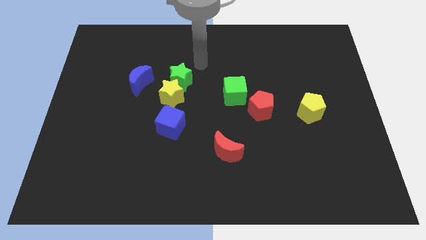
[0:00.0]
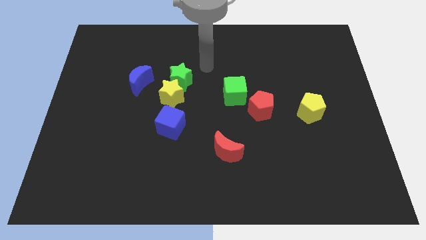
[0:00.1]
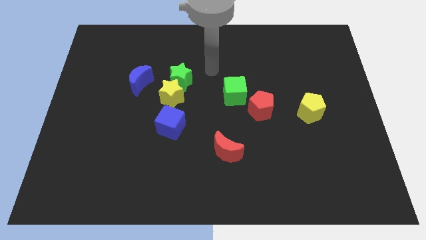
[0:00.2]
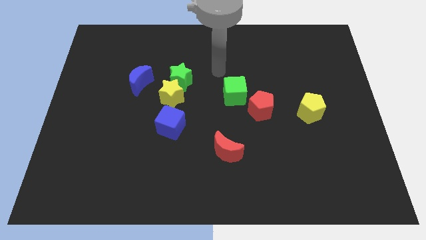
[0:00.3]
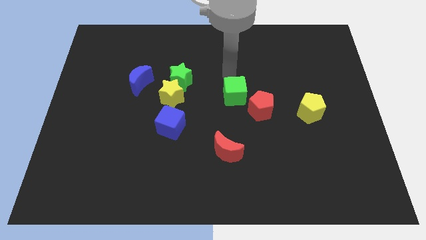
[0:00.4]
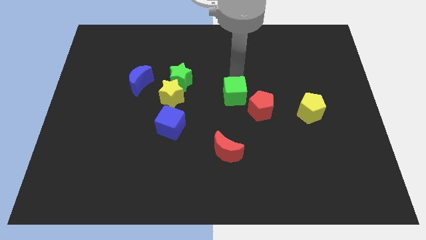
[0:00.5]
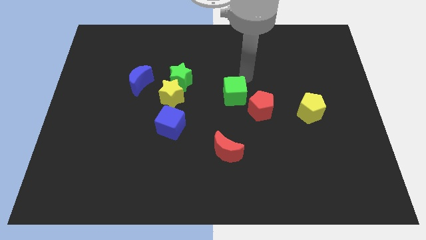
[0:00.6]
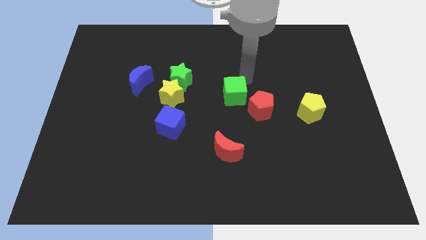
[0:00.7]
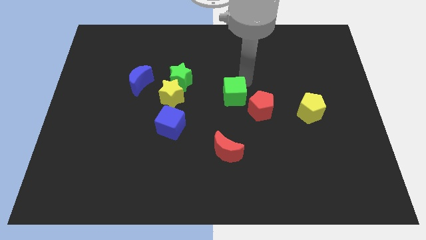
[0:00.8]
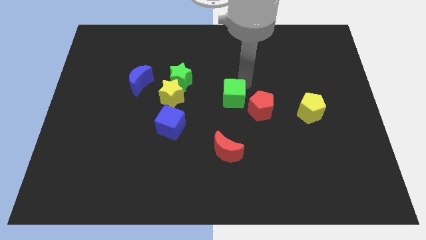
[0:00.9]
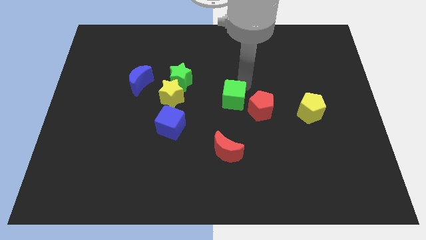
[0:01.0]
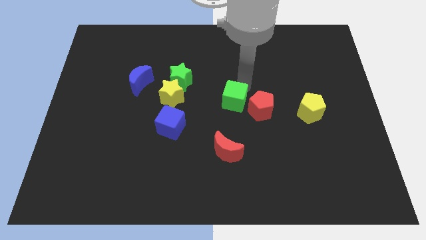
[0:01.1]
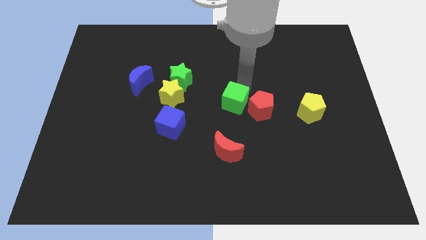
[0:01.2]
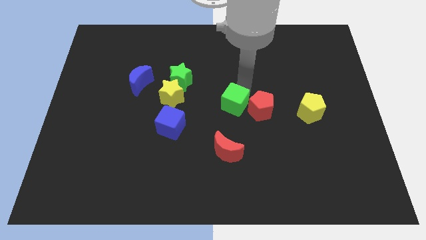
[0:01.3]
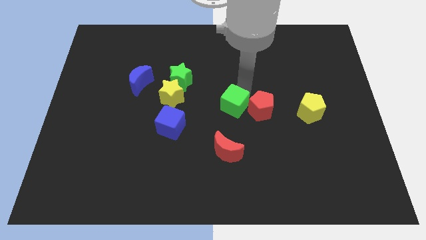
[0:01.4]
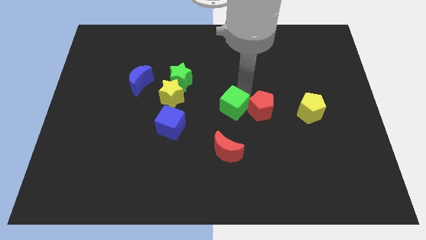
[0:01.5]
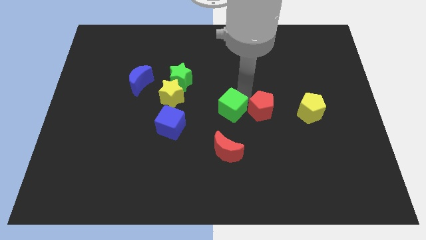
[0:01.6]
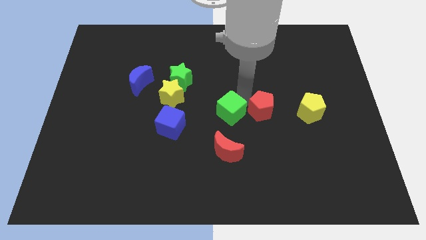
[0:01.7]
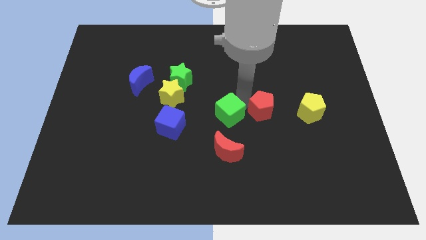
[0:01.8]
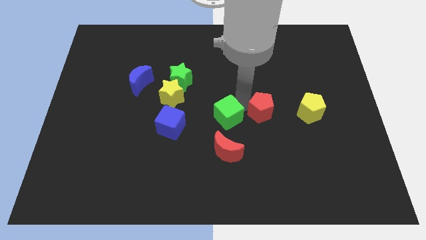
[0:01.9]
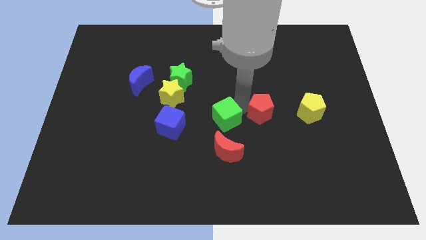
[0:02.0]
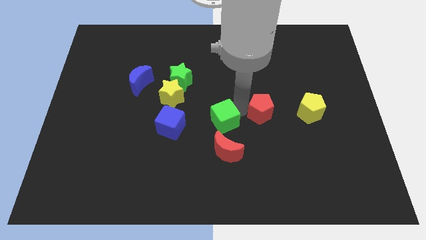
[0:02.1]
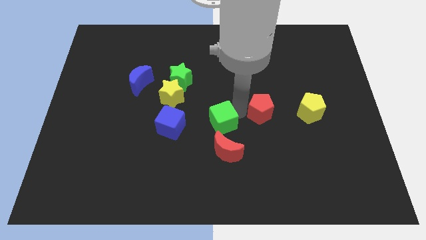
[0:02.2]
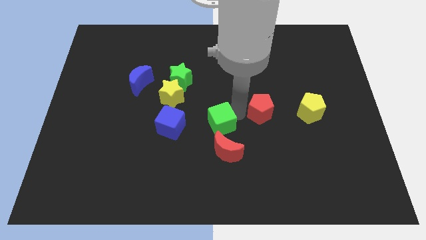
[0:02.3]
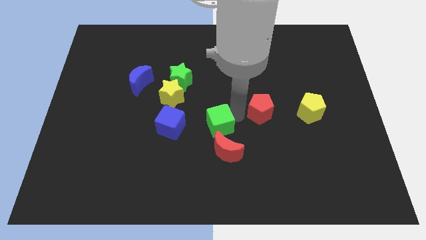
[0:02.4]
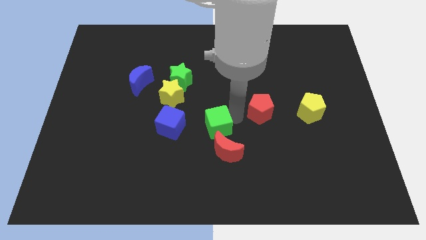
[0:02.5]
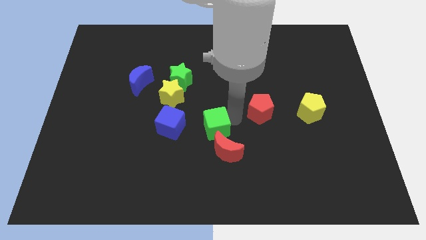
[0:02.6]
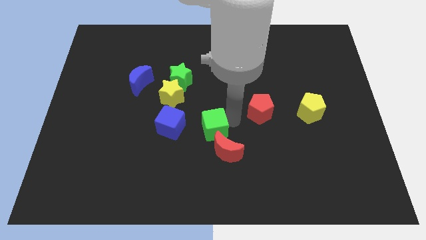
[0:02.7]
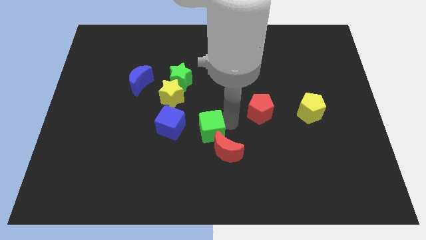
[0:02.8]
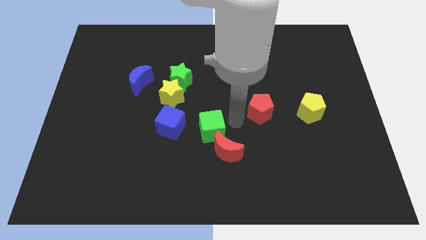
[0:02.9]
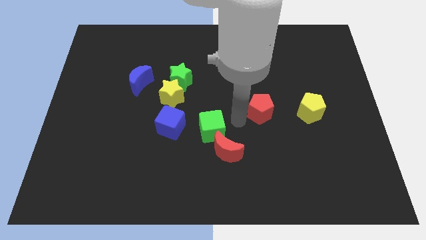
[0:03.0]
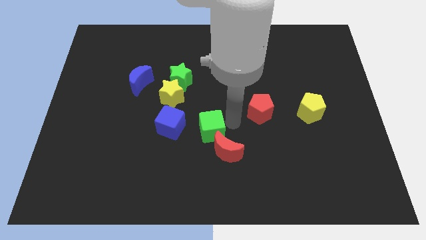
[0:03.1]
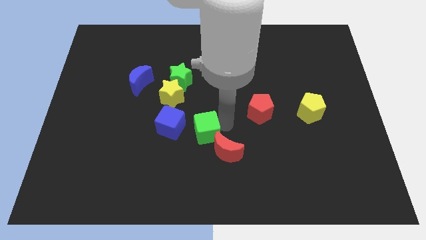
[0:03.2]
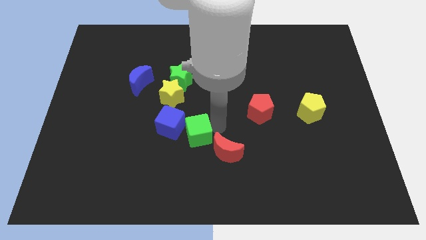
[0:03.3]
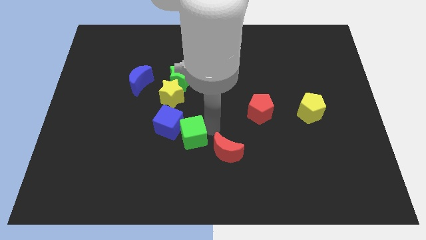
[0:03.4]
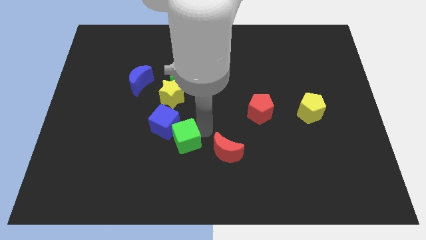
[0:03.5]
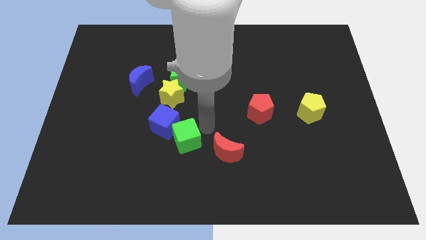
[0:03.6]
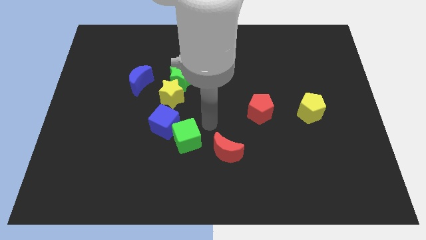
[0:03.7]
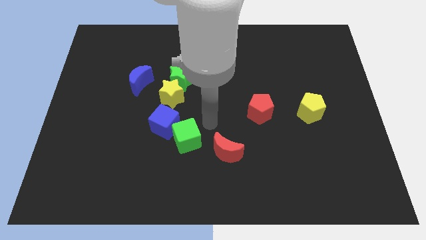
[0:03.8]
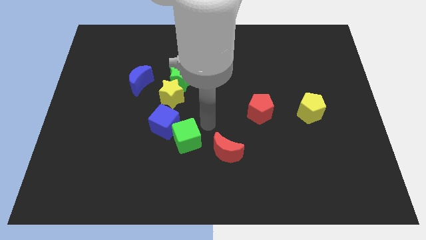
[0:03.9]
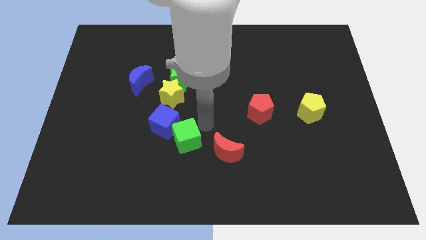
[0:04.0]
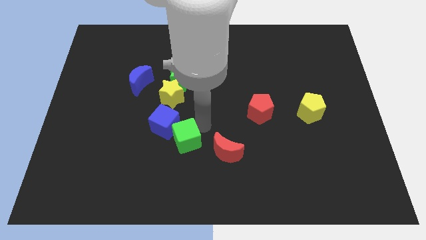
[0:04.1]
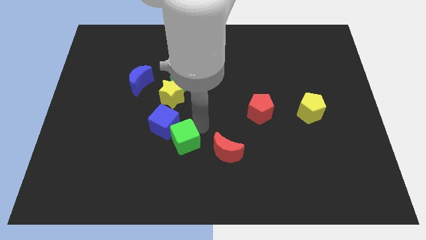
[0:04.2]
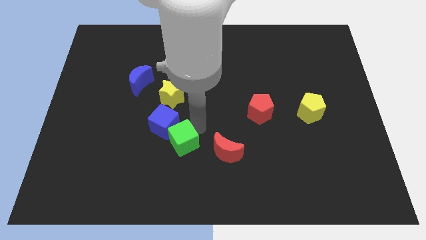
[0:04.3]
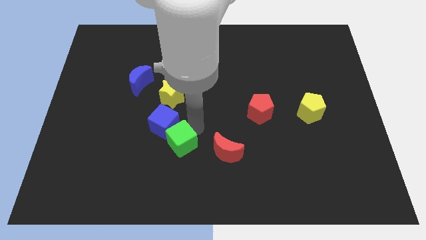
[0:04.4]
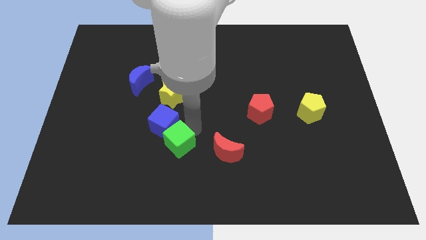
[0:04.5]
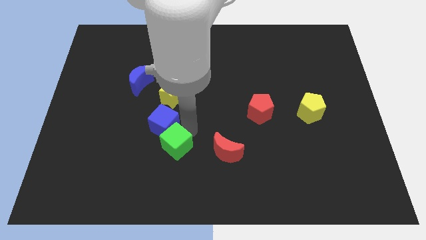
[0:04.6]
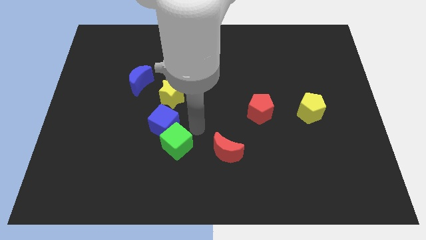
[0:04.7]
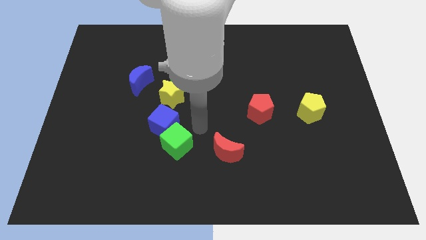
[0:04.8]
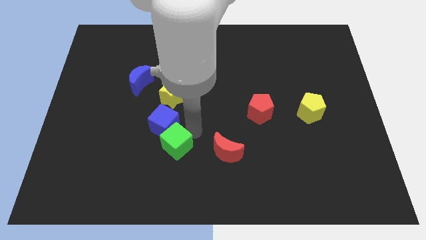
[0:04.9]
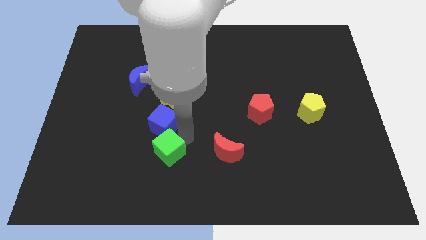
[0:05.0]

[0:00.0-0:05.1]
move the green cube diagonally downwards and left

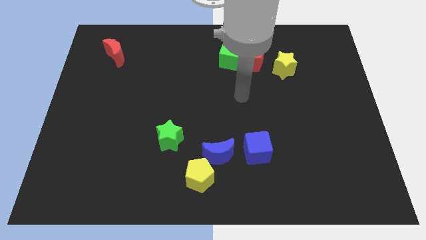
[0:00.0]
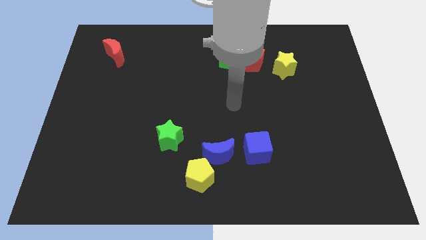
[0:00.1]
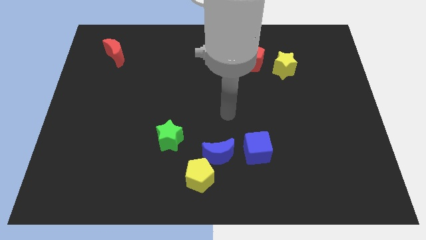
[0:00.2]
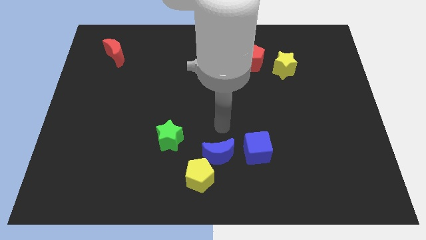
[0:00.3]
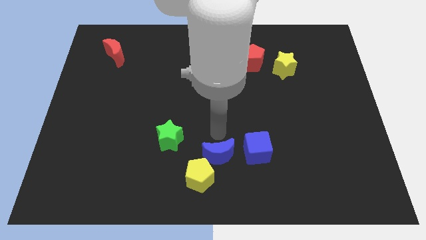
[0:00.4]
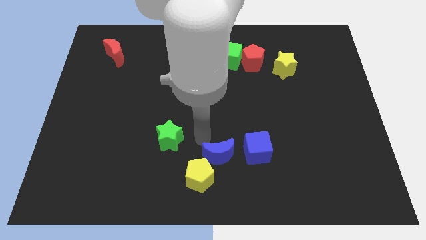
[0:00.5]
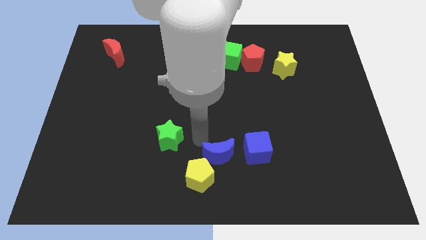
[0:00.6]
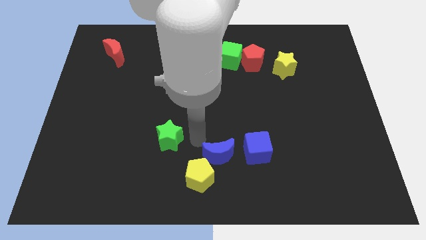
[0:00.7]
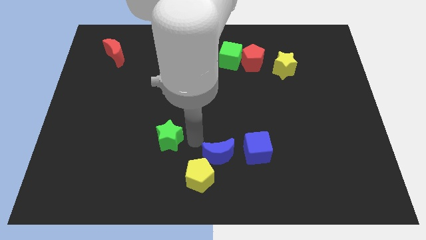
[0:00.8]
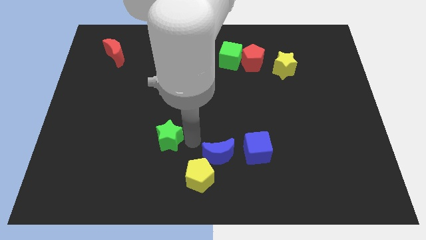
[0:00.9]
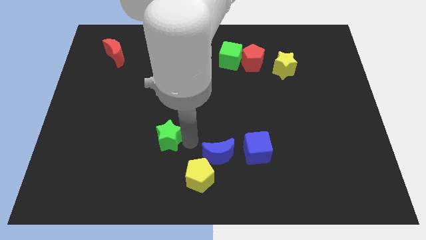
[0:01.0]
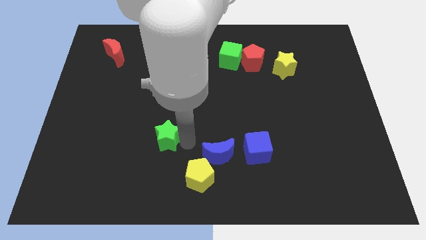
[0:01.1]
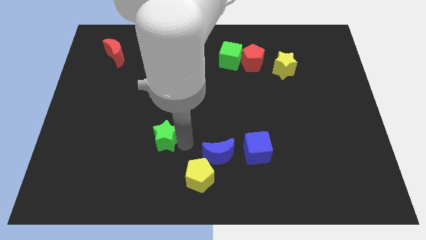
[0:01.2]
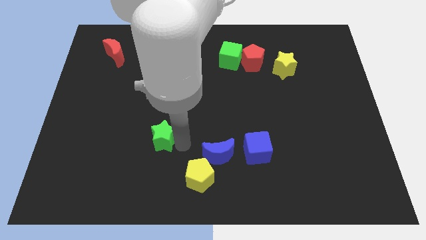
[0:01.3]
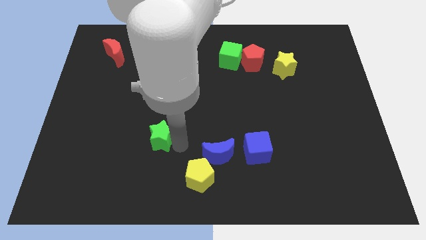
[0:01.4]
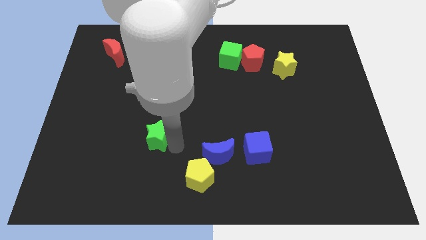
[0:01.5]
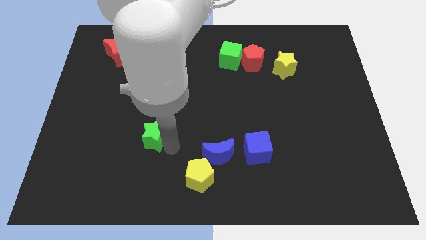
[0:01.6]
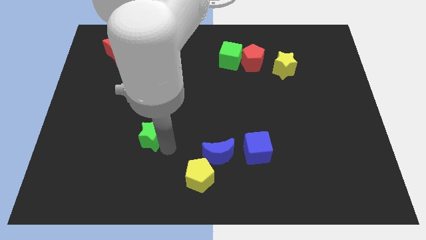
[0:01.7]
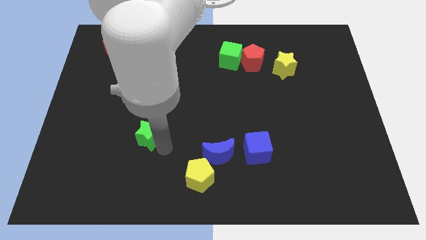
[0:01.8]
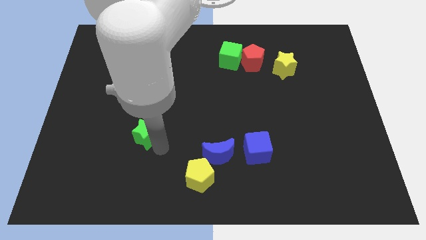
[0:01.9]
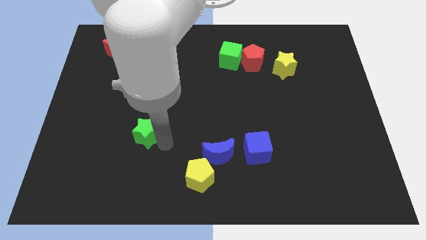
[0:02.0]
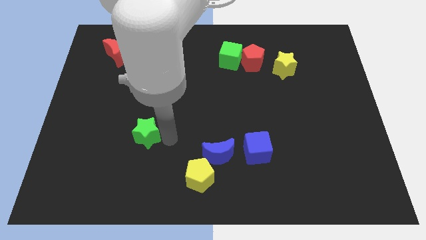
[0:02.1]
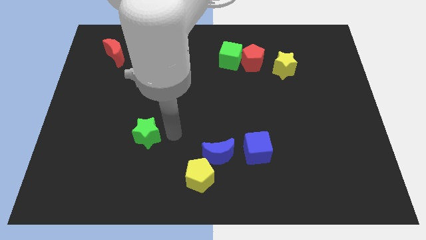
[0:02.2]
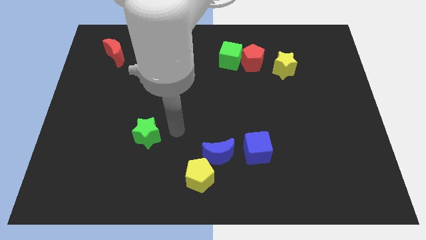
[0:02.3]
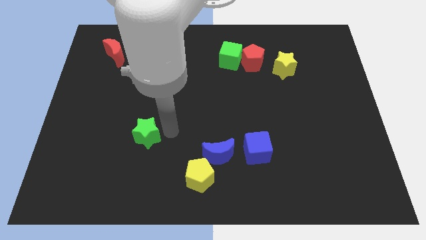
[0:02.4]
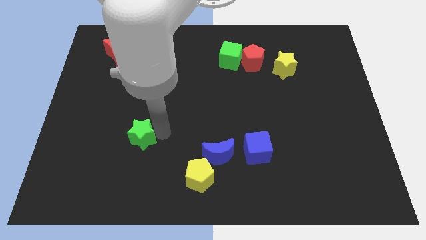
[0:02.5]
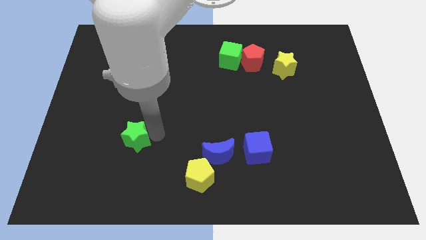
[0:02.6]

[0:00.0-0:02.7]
slightly push the green star to the left

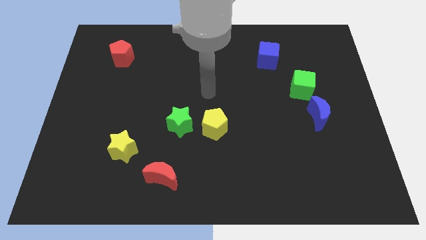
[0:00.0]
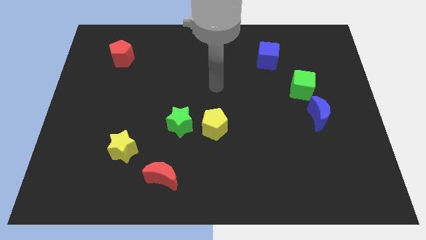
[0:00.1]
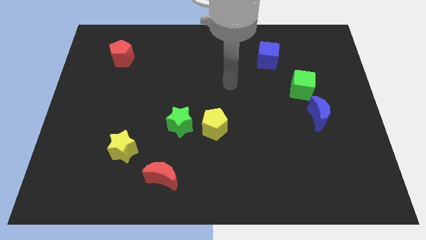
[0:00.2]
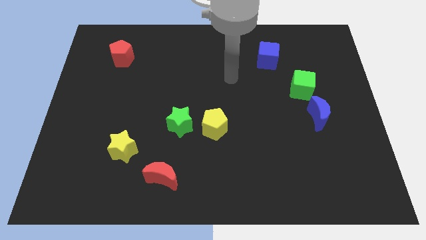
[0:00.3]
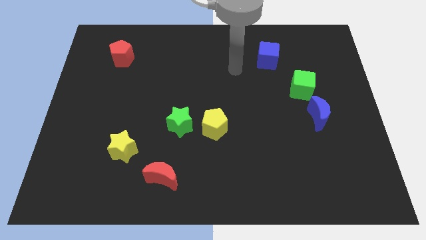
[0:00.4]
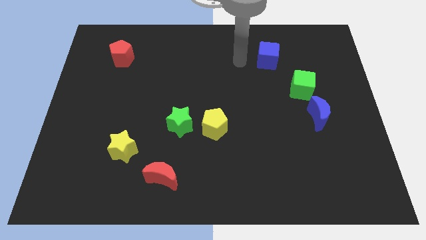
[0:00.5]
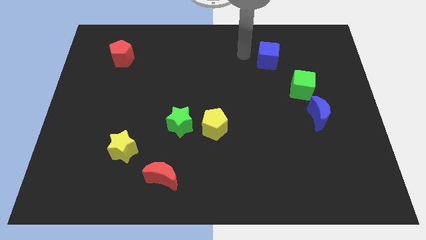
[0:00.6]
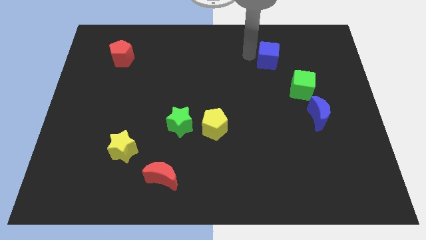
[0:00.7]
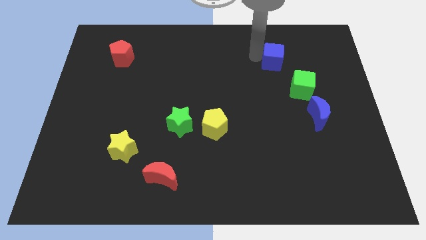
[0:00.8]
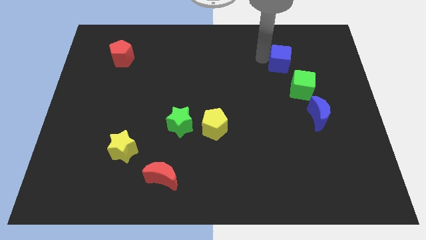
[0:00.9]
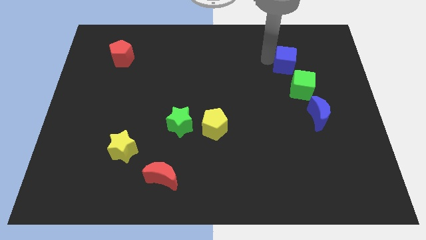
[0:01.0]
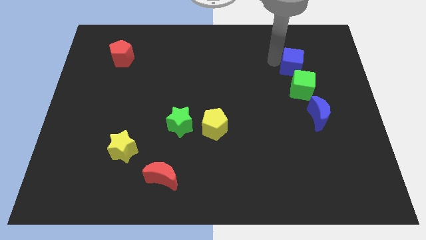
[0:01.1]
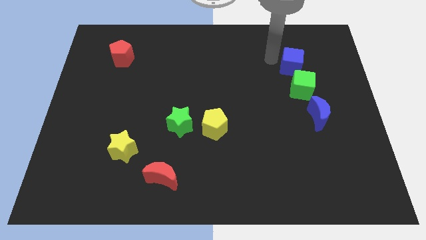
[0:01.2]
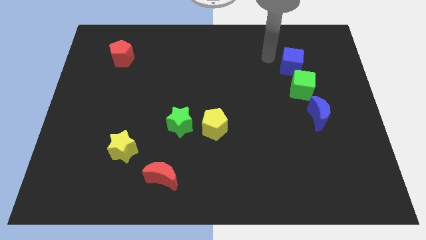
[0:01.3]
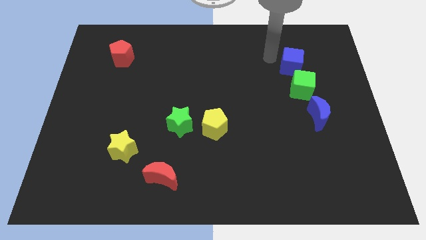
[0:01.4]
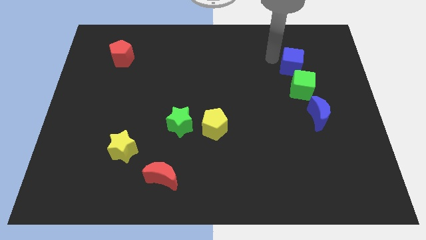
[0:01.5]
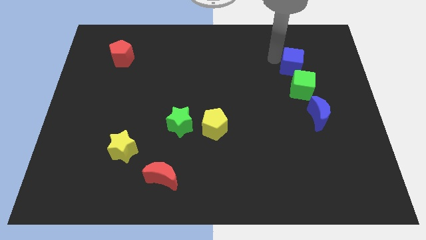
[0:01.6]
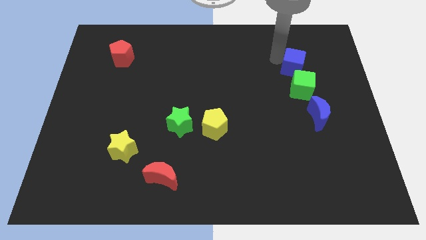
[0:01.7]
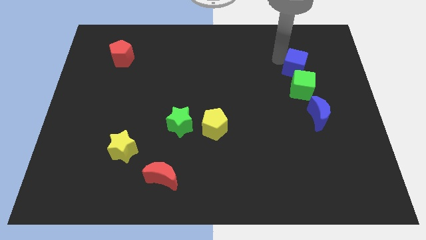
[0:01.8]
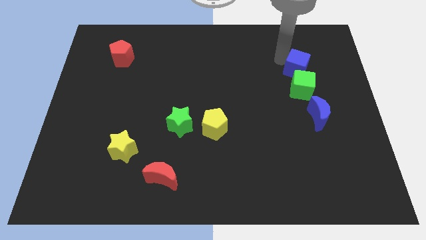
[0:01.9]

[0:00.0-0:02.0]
slightly move the blue cube downwards and right diagonally
